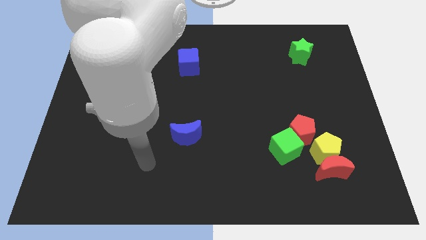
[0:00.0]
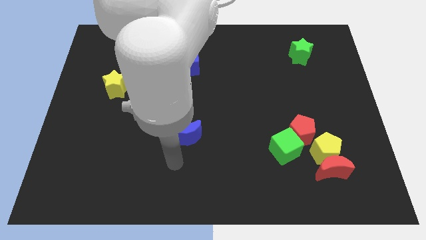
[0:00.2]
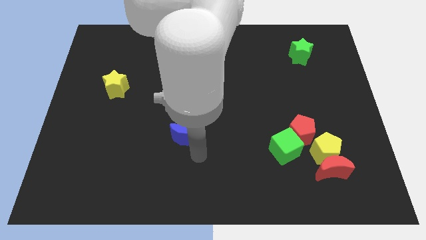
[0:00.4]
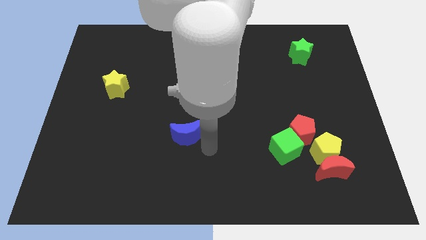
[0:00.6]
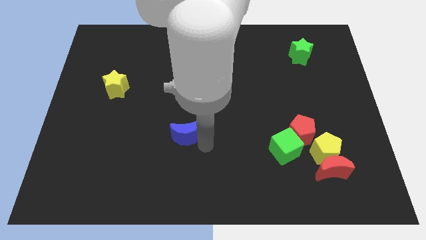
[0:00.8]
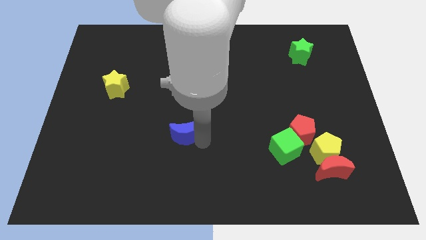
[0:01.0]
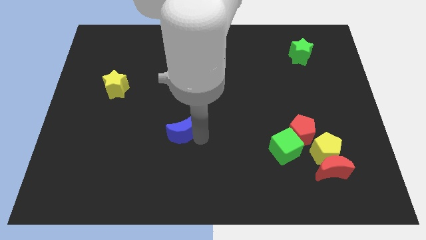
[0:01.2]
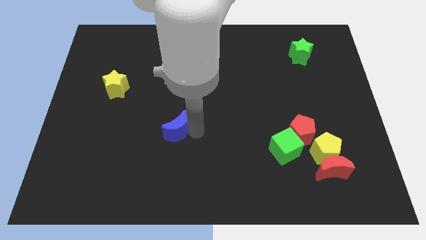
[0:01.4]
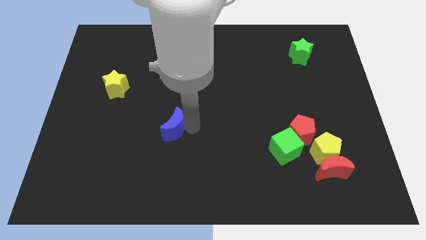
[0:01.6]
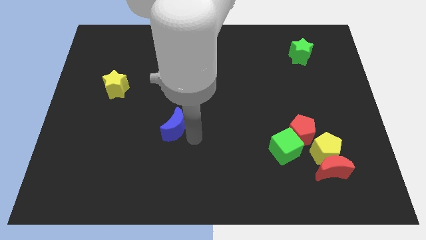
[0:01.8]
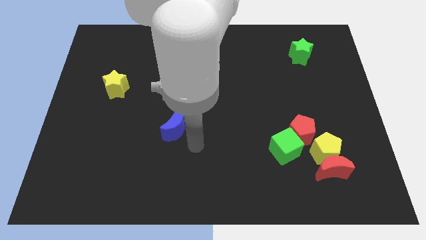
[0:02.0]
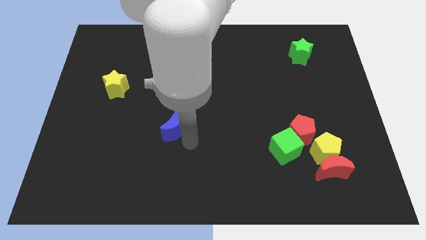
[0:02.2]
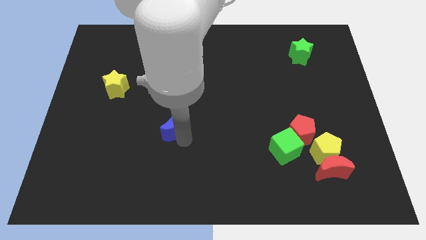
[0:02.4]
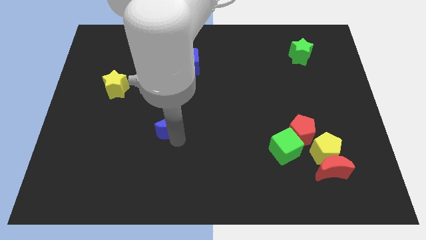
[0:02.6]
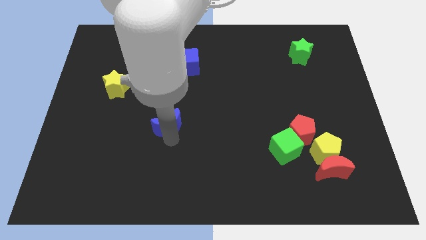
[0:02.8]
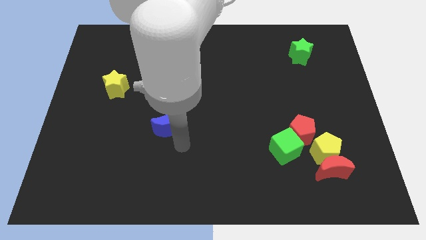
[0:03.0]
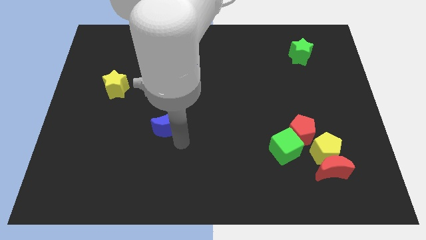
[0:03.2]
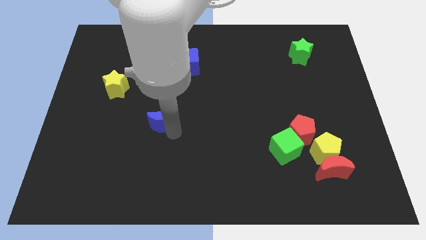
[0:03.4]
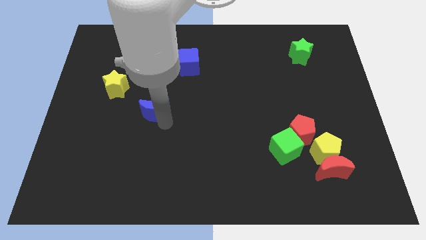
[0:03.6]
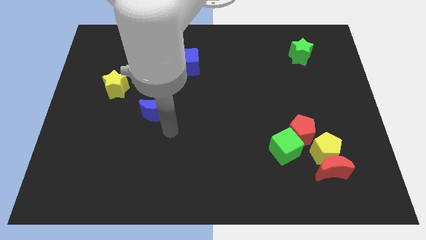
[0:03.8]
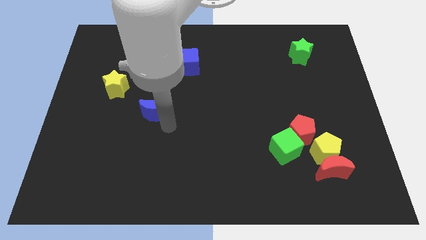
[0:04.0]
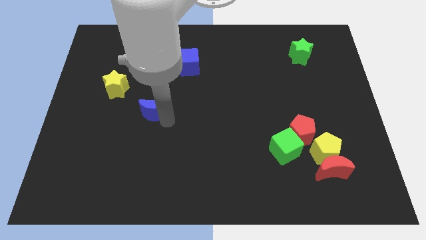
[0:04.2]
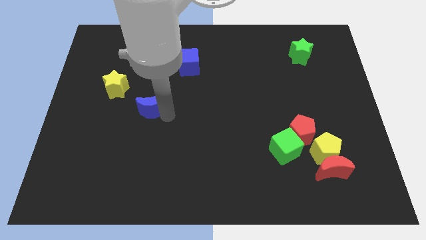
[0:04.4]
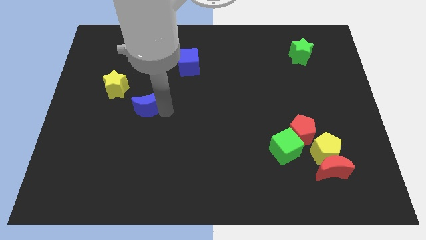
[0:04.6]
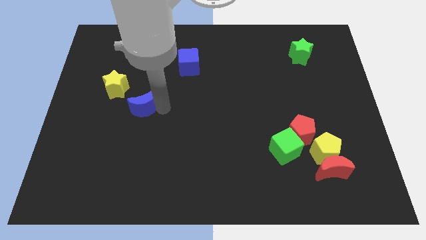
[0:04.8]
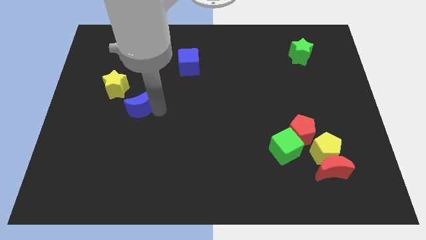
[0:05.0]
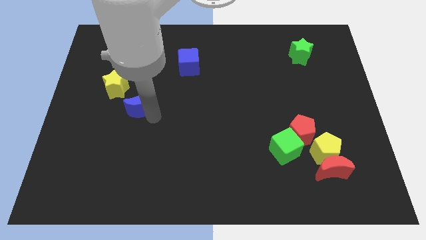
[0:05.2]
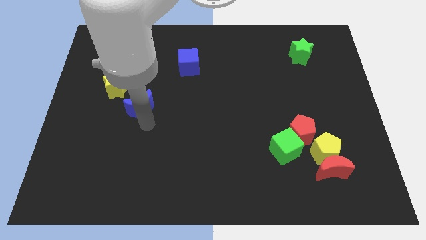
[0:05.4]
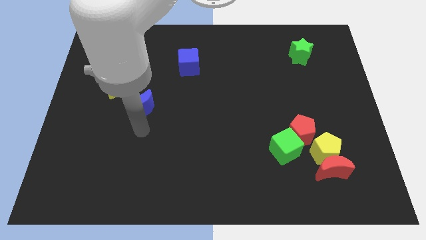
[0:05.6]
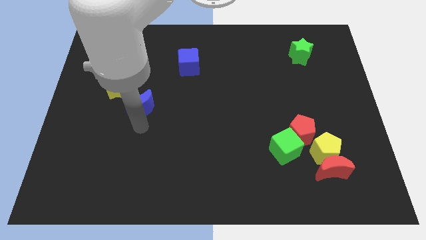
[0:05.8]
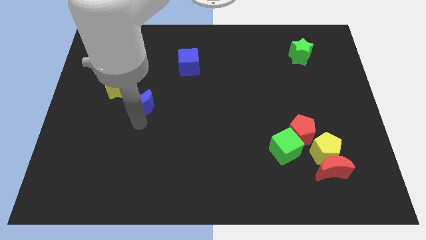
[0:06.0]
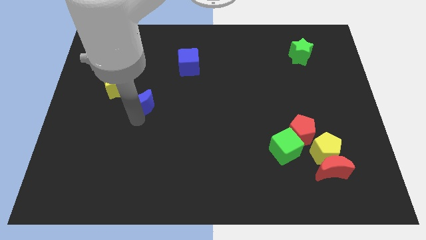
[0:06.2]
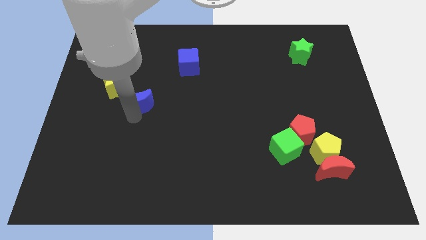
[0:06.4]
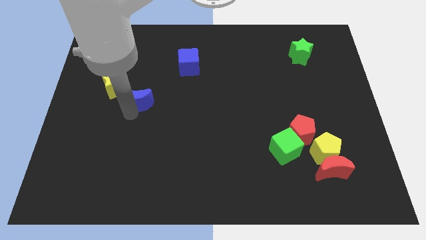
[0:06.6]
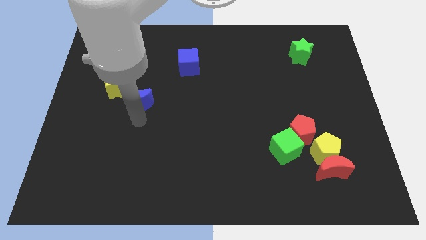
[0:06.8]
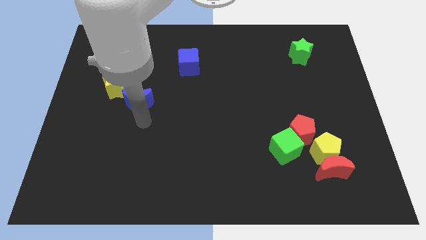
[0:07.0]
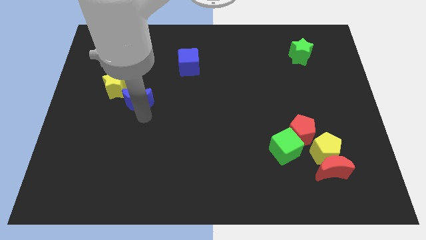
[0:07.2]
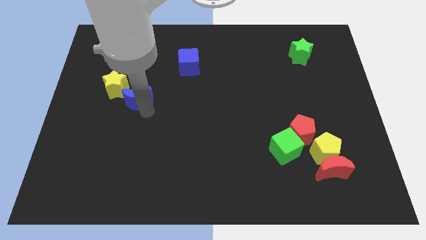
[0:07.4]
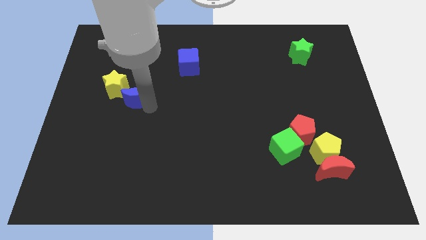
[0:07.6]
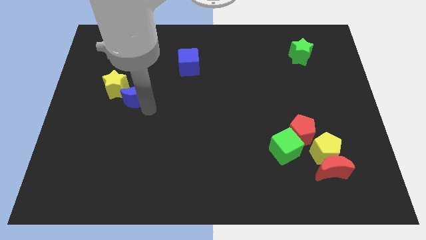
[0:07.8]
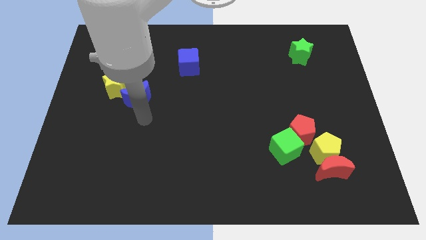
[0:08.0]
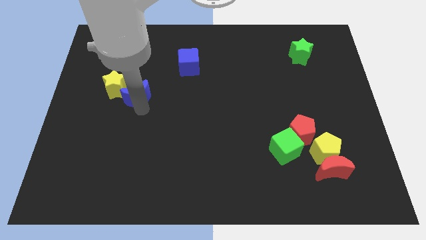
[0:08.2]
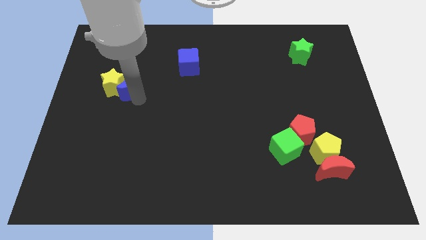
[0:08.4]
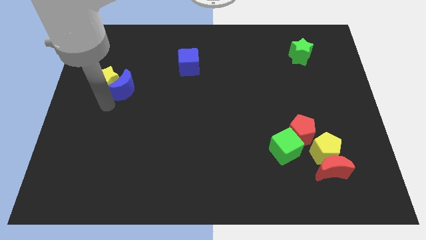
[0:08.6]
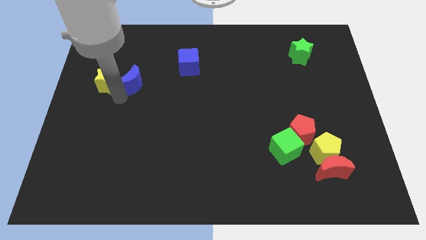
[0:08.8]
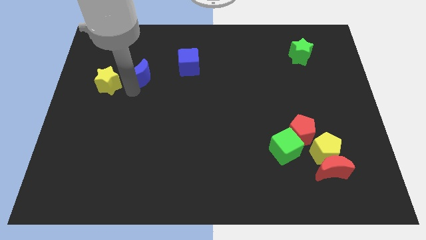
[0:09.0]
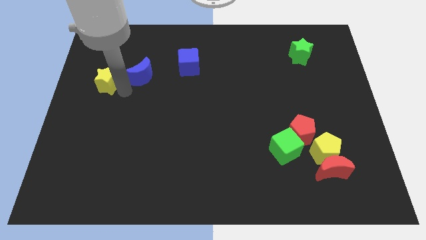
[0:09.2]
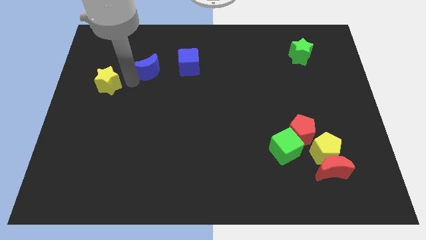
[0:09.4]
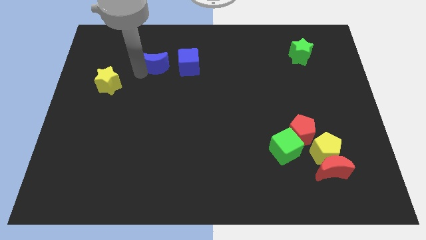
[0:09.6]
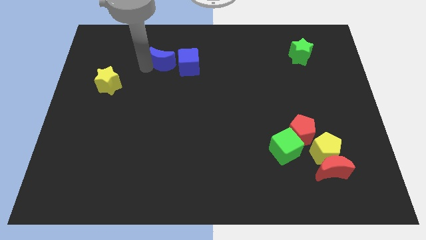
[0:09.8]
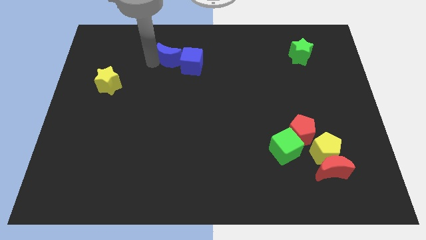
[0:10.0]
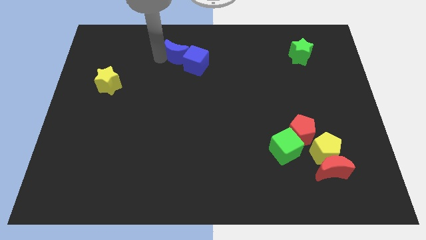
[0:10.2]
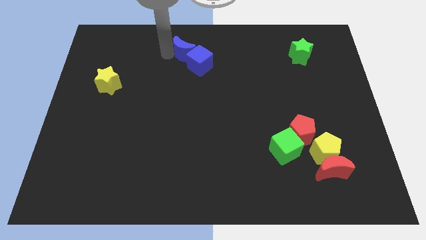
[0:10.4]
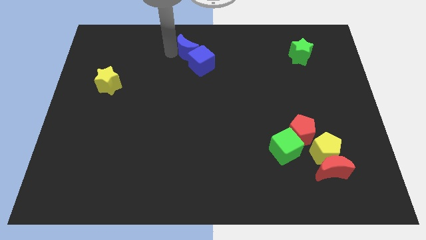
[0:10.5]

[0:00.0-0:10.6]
push the blue moon to the towards your base

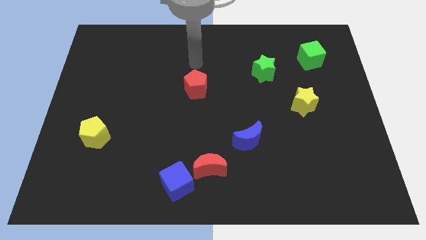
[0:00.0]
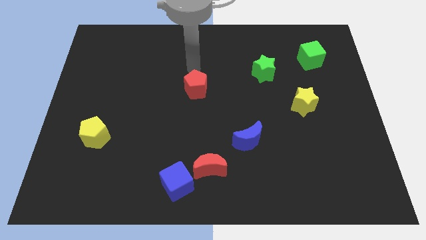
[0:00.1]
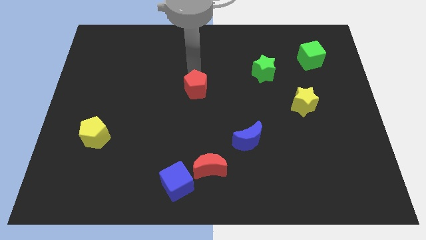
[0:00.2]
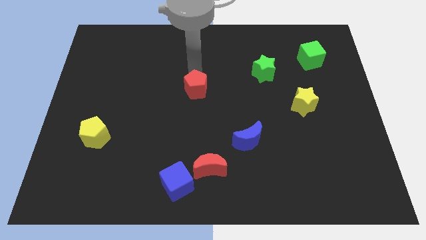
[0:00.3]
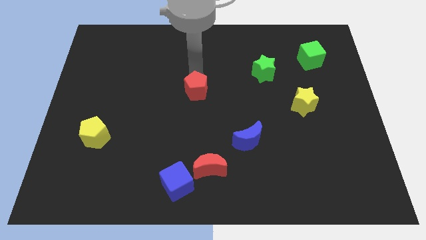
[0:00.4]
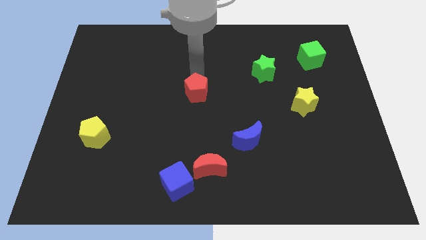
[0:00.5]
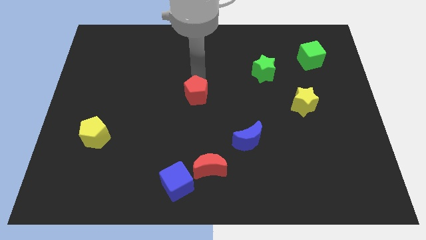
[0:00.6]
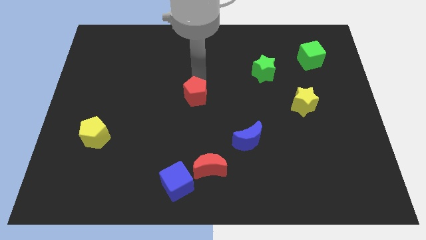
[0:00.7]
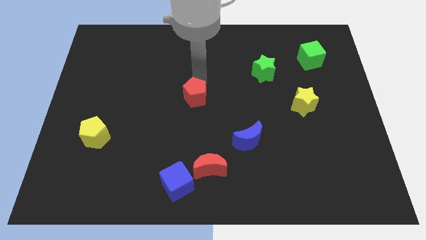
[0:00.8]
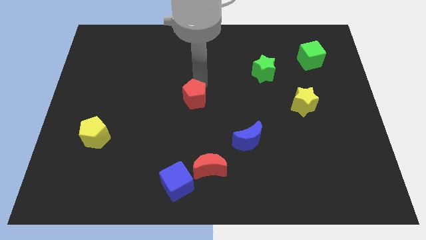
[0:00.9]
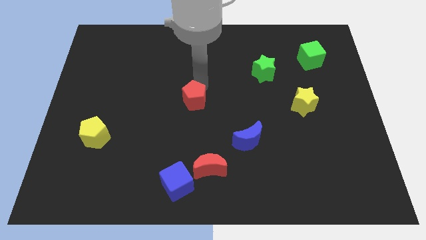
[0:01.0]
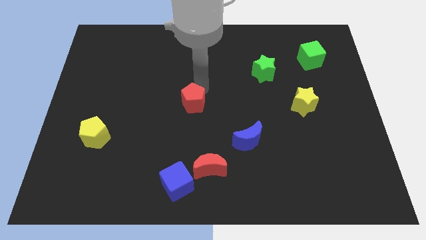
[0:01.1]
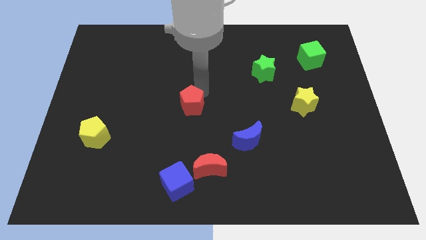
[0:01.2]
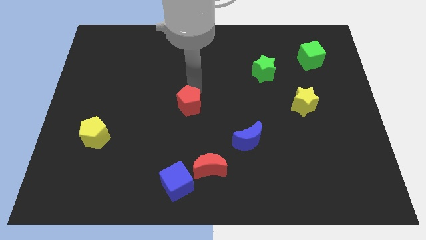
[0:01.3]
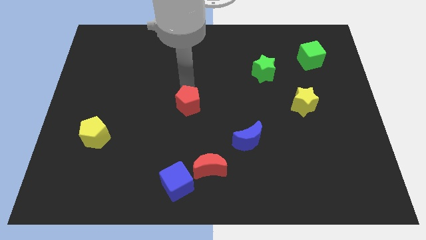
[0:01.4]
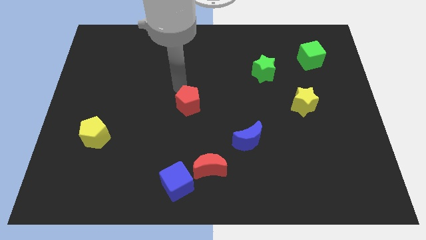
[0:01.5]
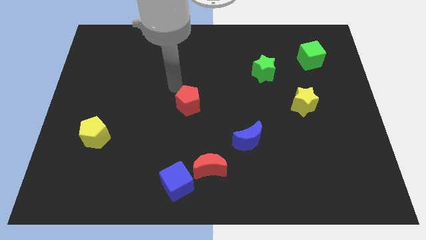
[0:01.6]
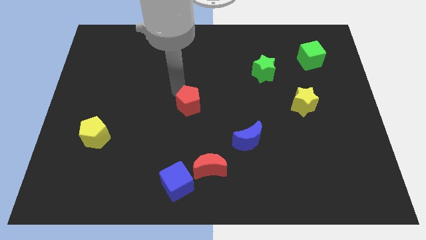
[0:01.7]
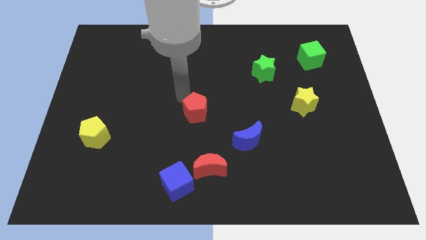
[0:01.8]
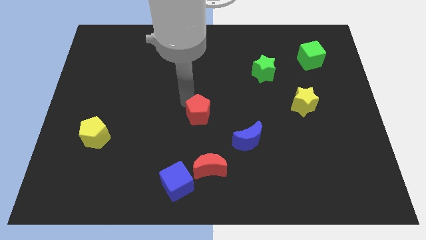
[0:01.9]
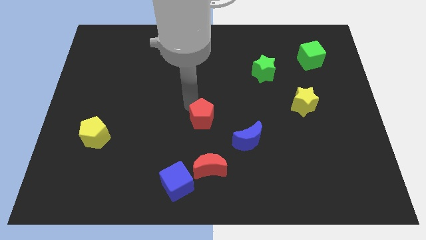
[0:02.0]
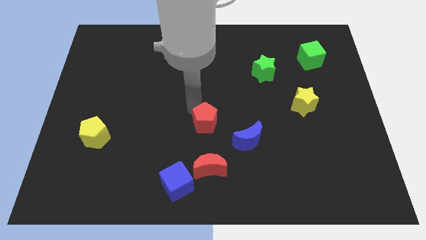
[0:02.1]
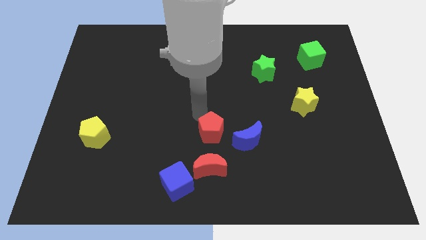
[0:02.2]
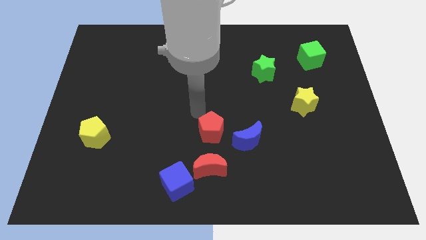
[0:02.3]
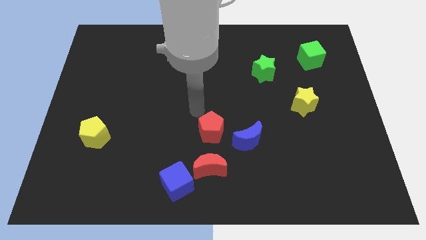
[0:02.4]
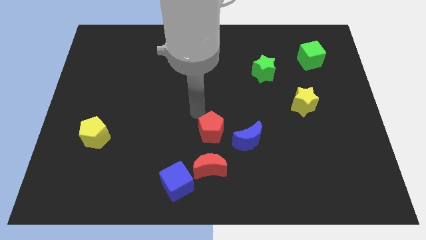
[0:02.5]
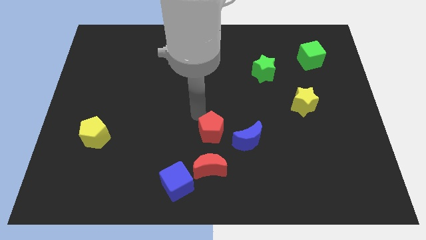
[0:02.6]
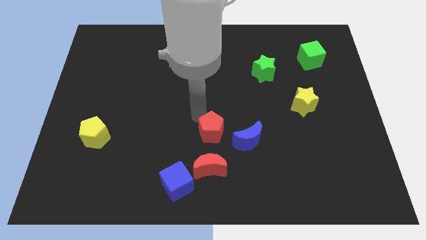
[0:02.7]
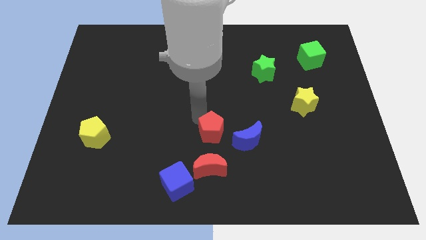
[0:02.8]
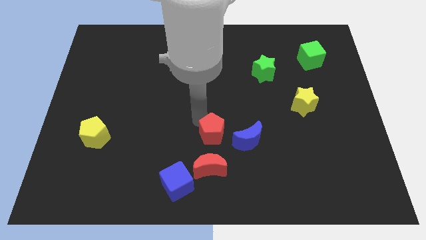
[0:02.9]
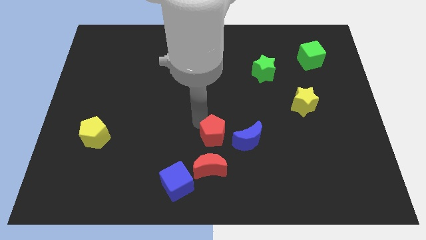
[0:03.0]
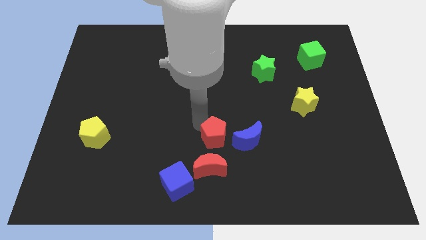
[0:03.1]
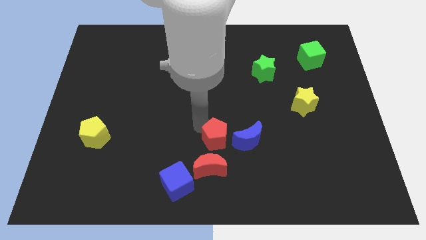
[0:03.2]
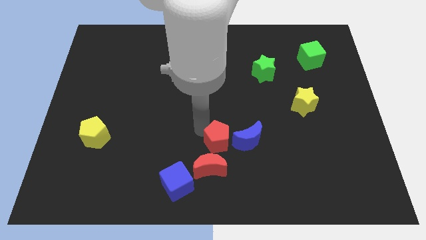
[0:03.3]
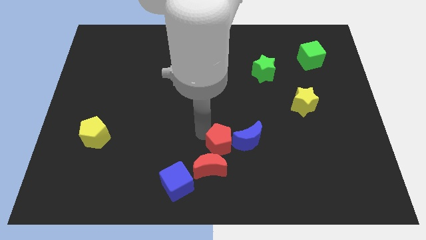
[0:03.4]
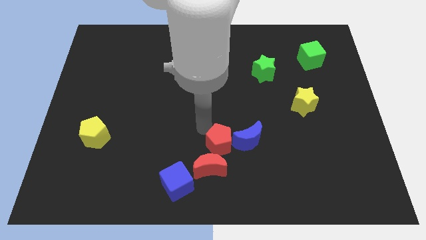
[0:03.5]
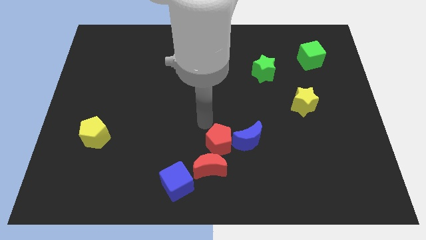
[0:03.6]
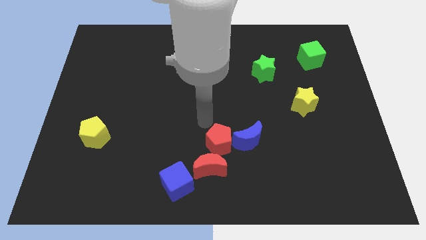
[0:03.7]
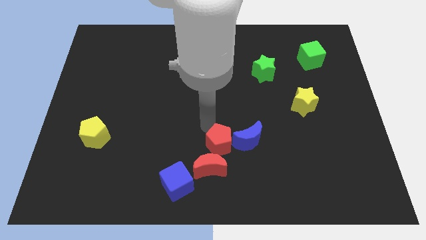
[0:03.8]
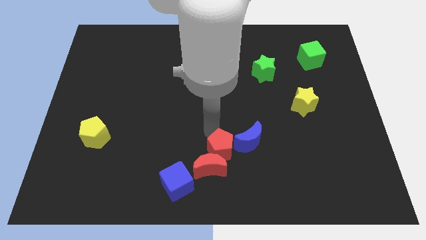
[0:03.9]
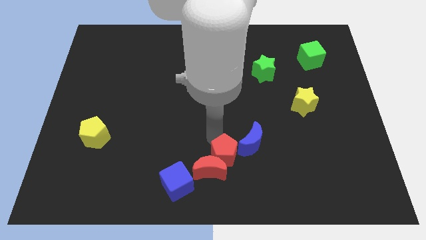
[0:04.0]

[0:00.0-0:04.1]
move the red pentagon to the bottom side
